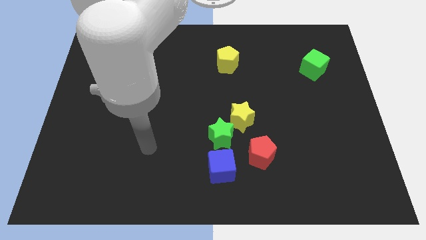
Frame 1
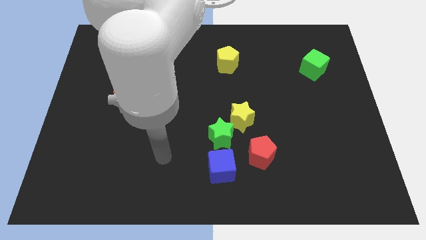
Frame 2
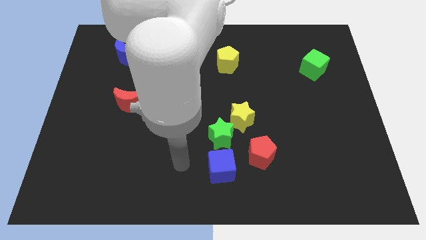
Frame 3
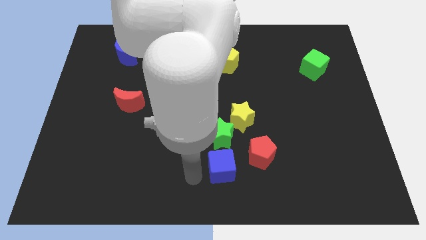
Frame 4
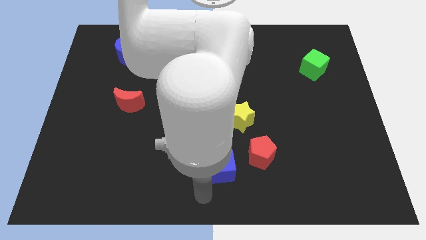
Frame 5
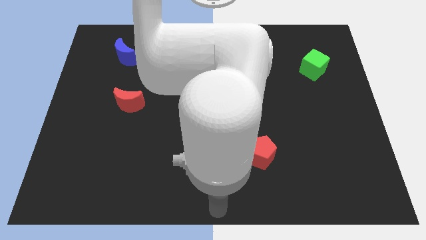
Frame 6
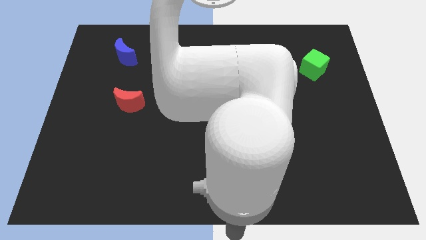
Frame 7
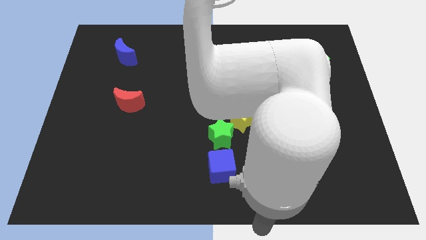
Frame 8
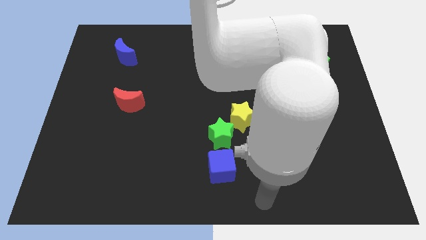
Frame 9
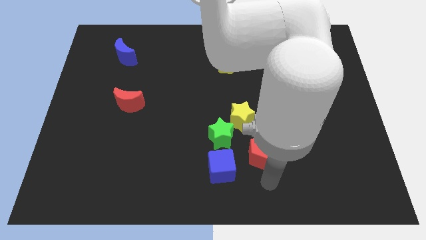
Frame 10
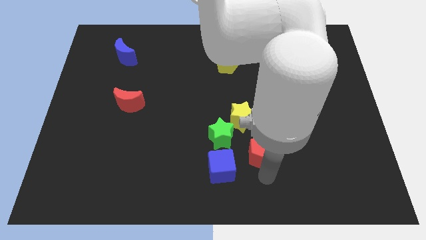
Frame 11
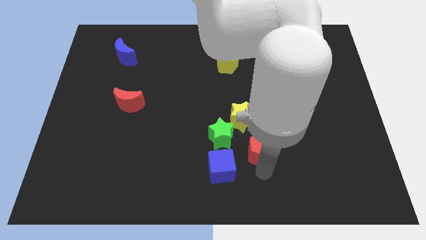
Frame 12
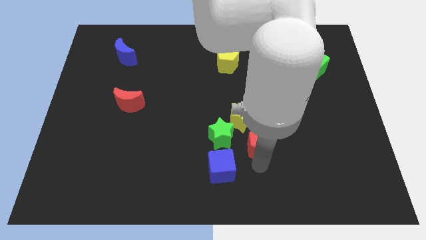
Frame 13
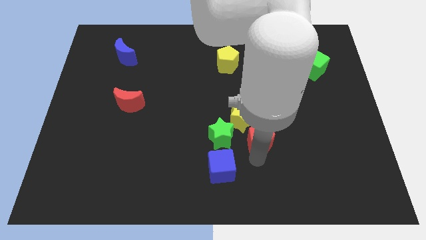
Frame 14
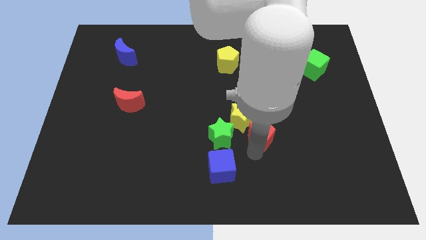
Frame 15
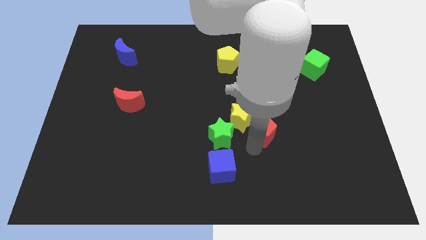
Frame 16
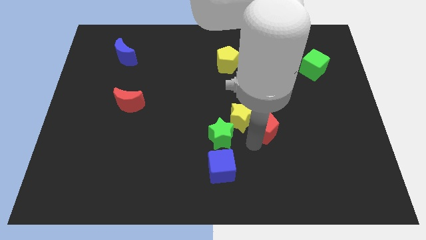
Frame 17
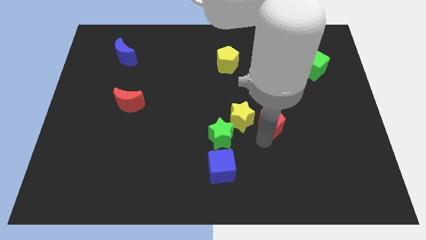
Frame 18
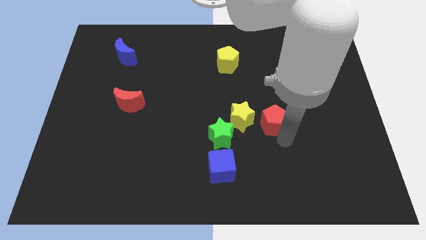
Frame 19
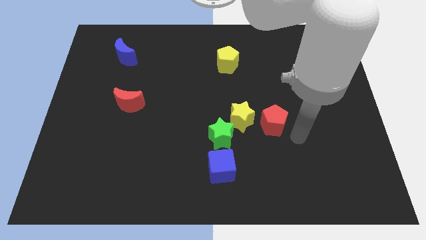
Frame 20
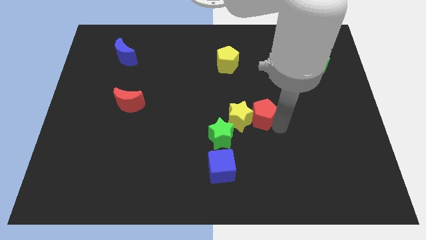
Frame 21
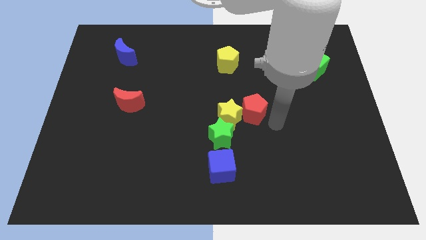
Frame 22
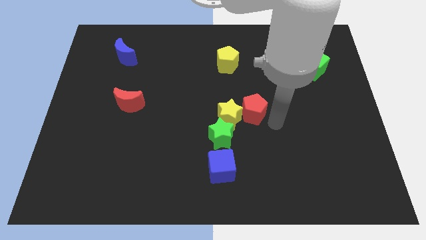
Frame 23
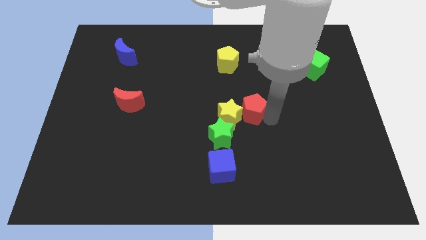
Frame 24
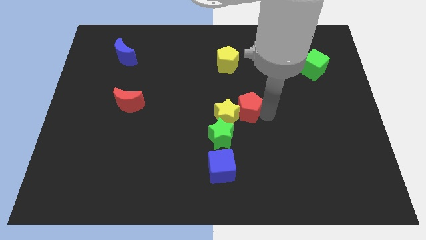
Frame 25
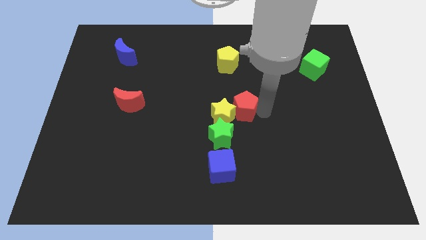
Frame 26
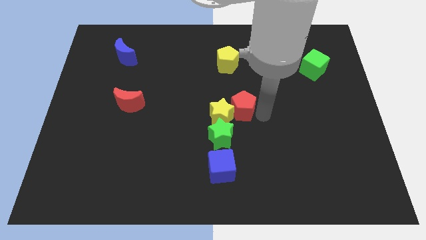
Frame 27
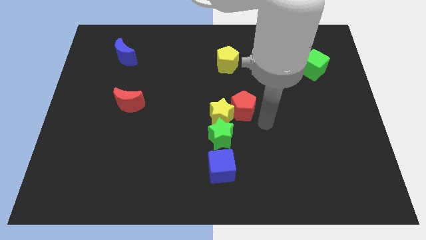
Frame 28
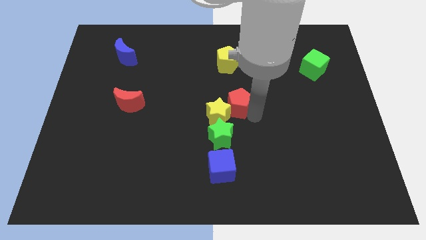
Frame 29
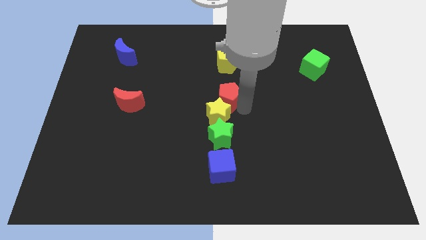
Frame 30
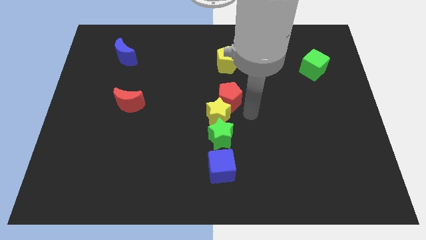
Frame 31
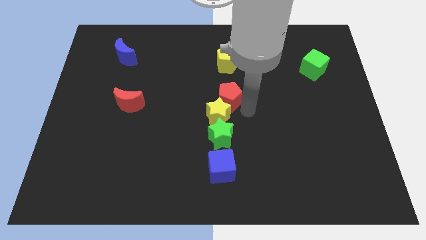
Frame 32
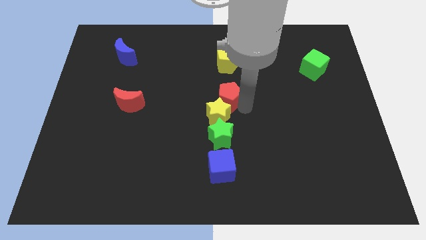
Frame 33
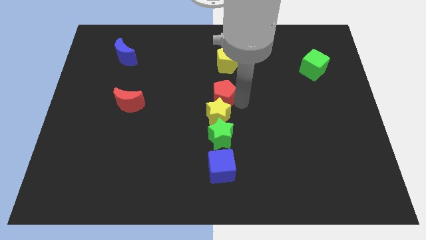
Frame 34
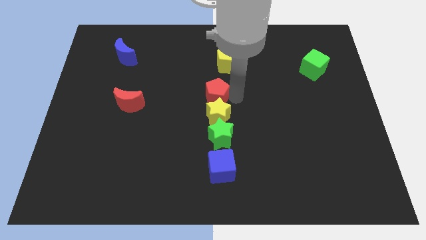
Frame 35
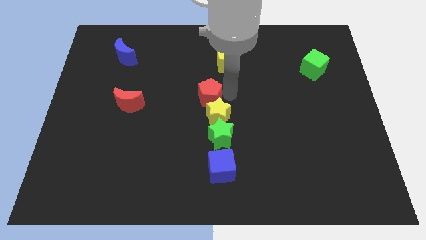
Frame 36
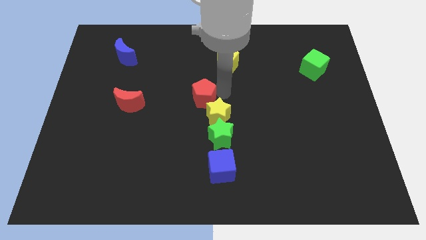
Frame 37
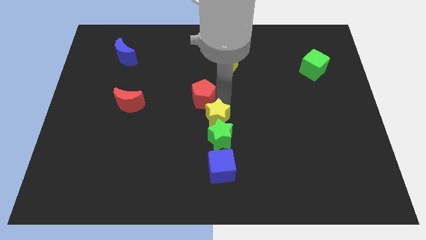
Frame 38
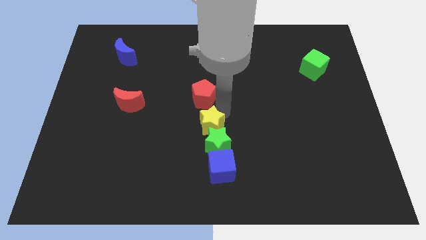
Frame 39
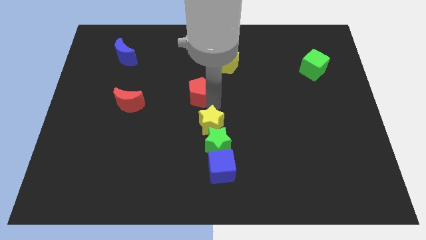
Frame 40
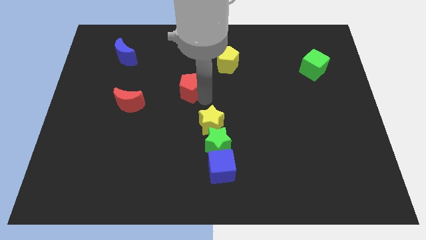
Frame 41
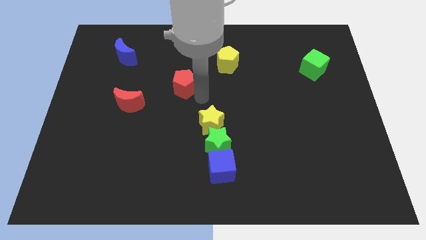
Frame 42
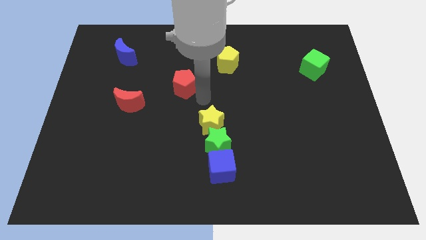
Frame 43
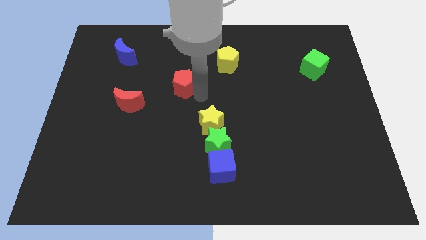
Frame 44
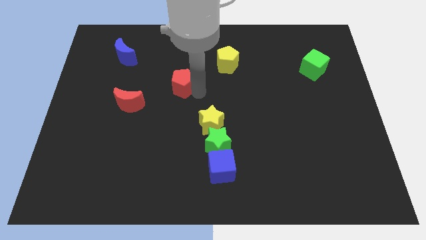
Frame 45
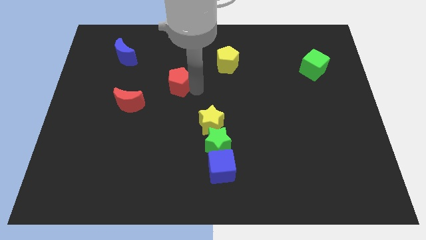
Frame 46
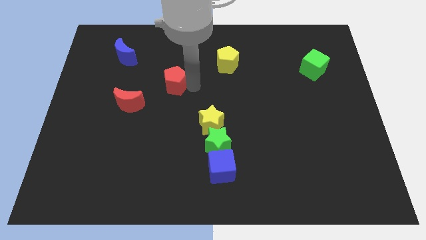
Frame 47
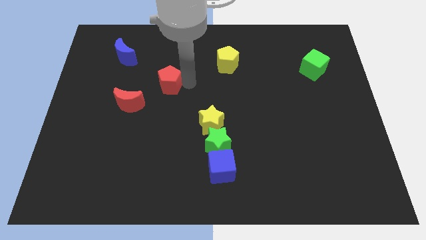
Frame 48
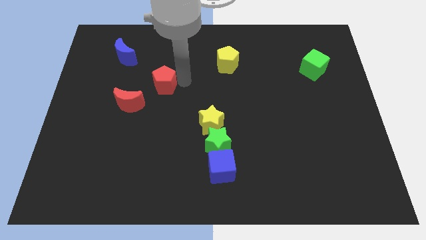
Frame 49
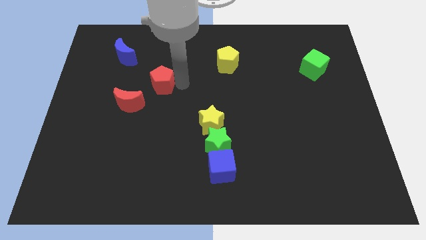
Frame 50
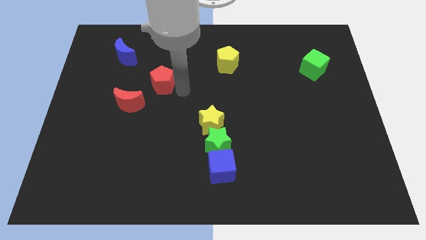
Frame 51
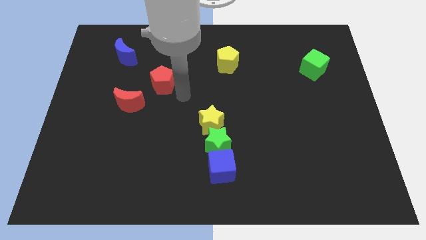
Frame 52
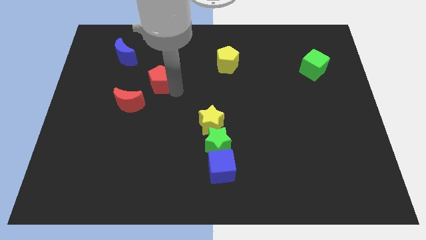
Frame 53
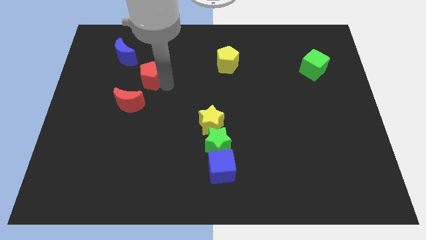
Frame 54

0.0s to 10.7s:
put the red pentagon to the top of the red moon

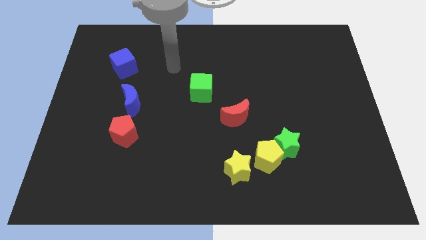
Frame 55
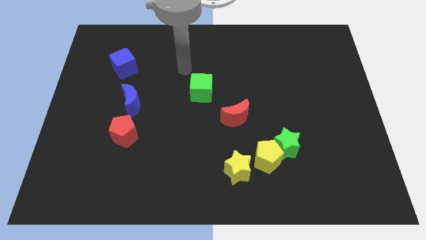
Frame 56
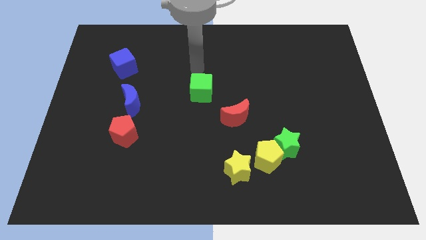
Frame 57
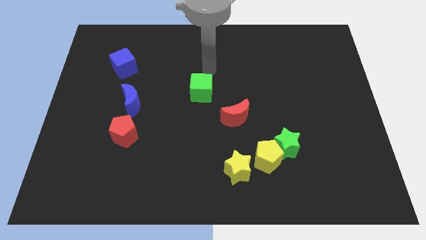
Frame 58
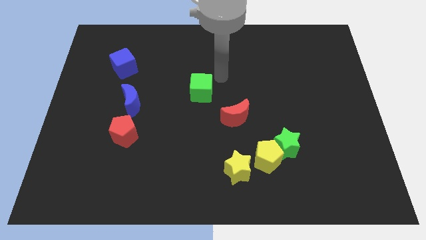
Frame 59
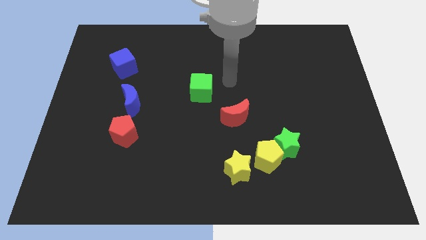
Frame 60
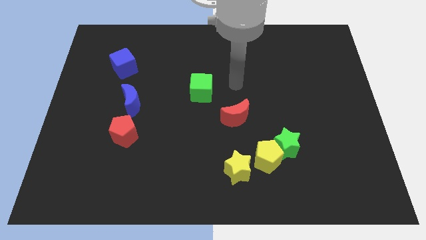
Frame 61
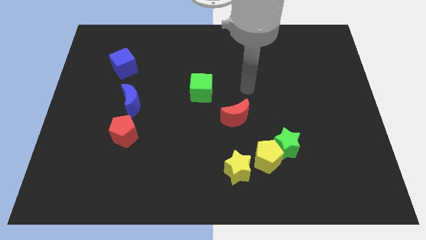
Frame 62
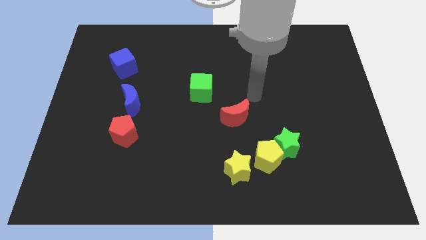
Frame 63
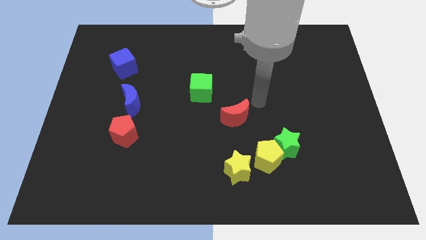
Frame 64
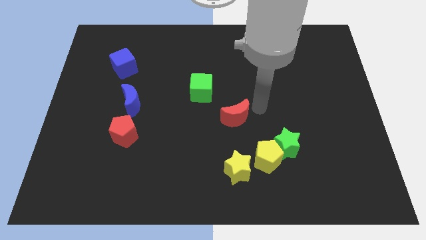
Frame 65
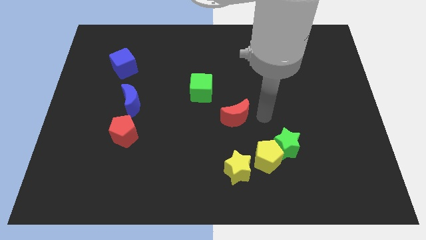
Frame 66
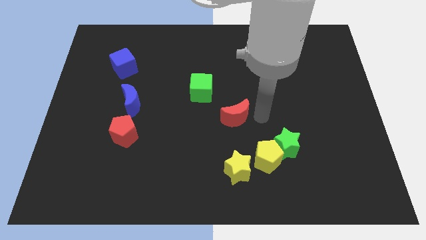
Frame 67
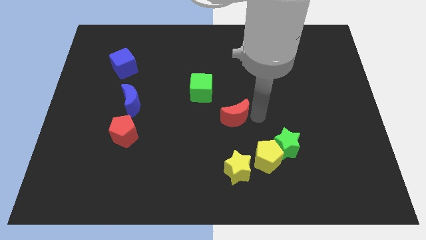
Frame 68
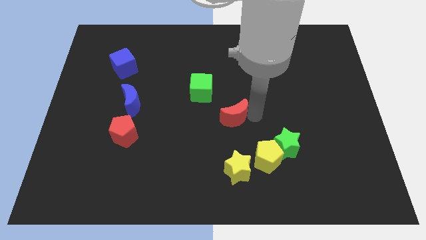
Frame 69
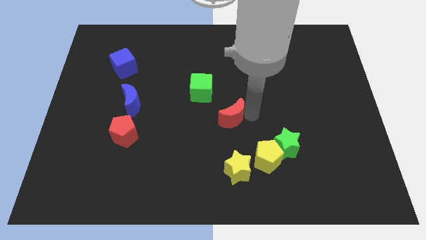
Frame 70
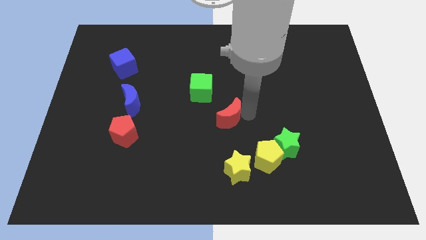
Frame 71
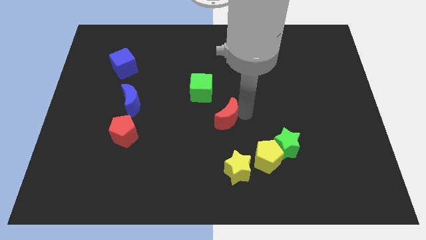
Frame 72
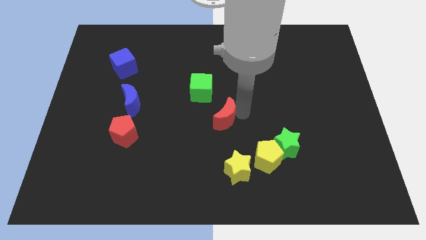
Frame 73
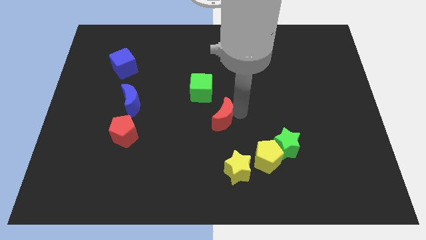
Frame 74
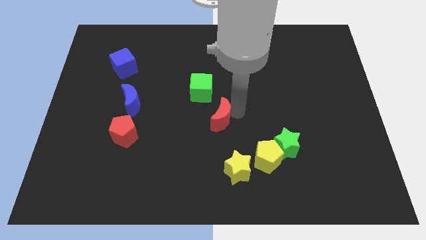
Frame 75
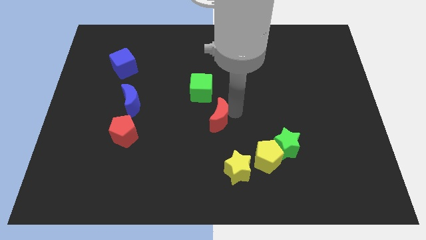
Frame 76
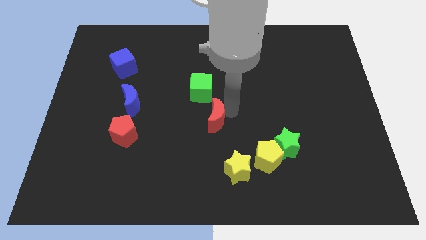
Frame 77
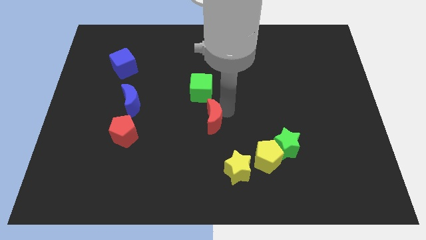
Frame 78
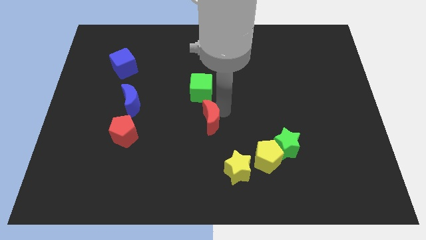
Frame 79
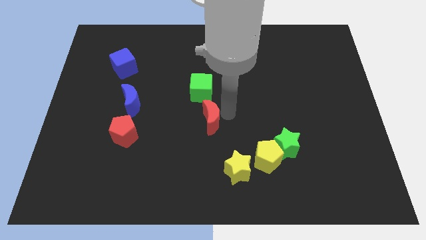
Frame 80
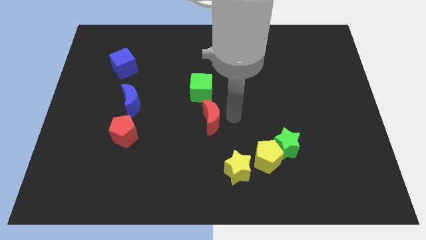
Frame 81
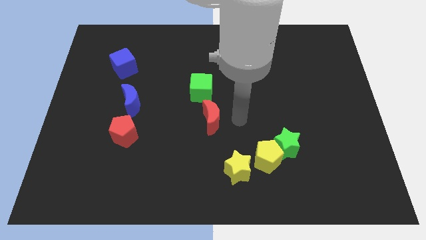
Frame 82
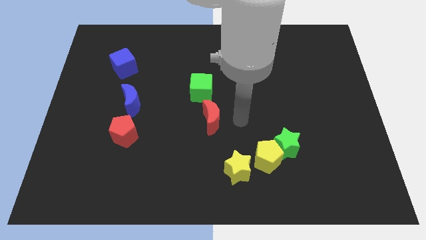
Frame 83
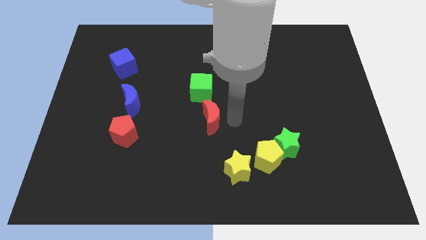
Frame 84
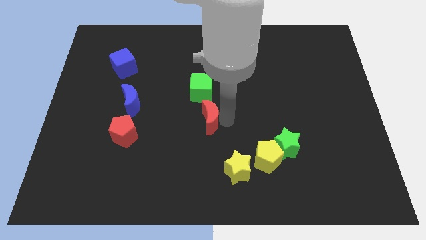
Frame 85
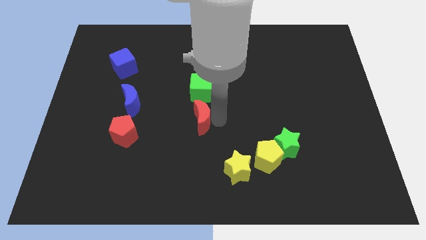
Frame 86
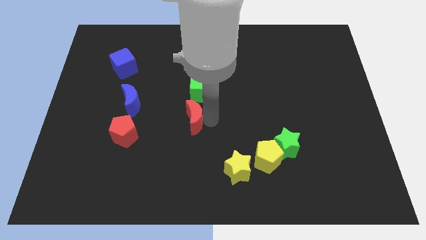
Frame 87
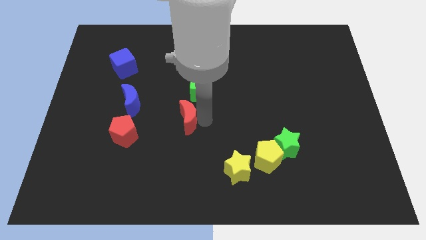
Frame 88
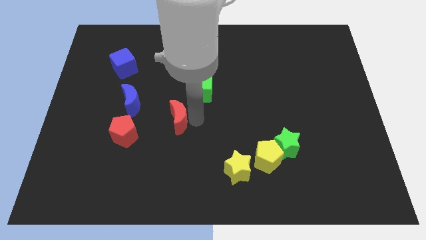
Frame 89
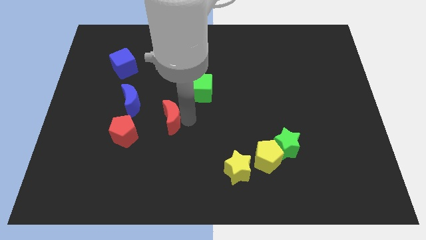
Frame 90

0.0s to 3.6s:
move the red moon to the bottom right side of the blue moon
